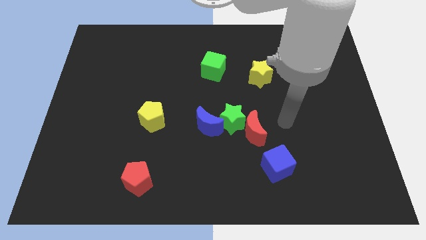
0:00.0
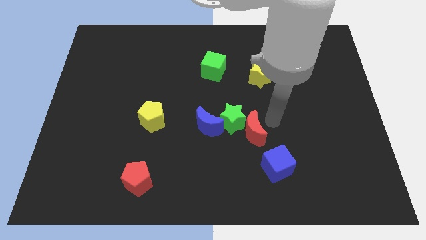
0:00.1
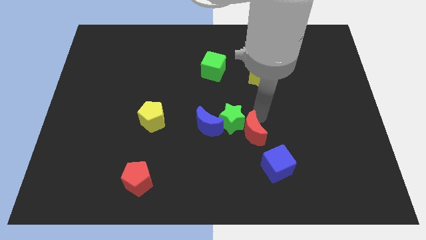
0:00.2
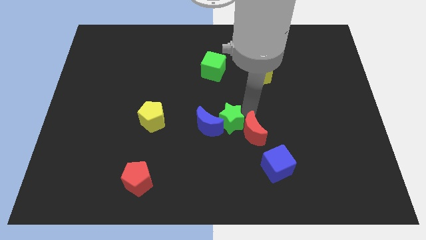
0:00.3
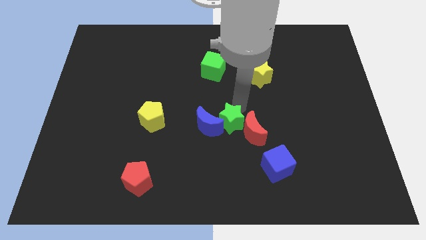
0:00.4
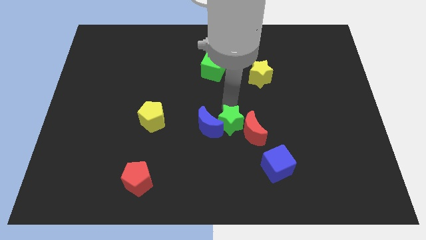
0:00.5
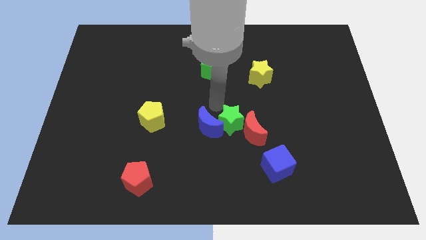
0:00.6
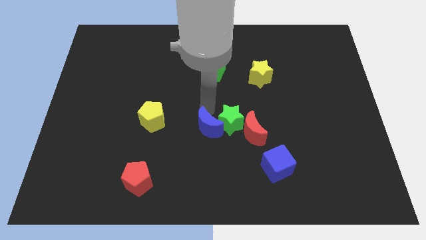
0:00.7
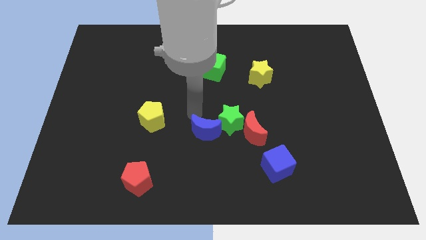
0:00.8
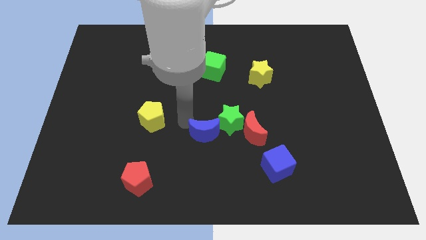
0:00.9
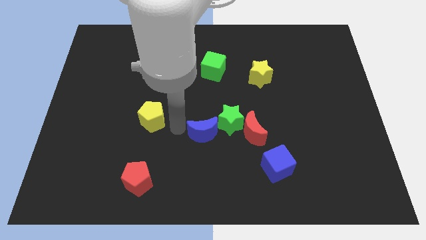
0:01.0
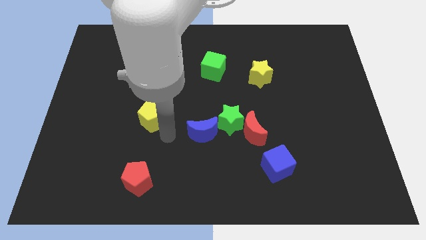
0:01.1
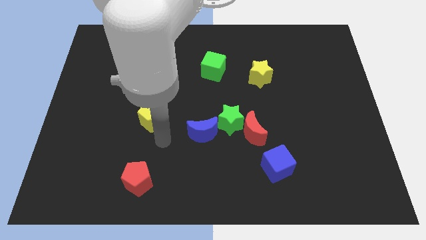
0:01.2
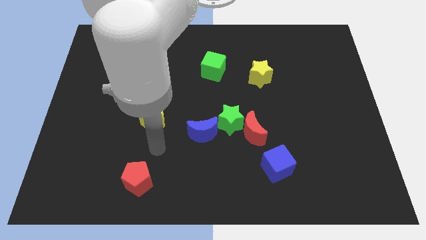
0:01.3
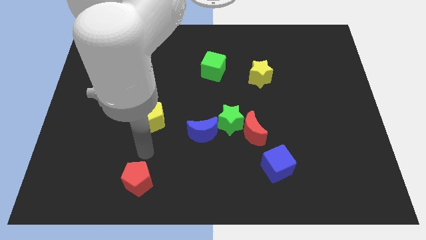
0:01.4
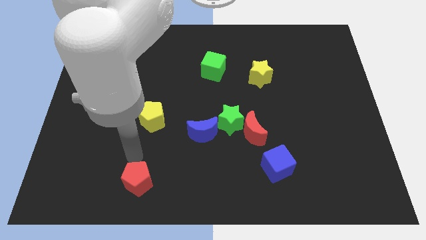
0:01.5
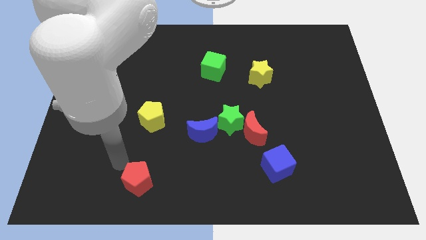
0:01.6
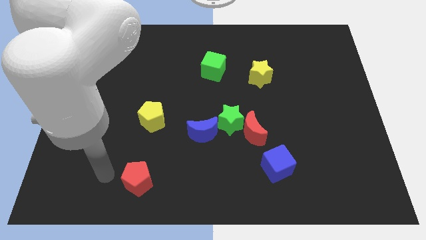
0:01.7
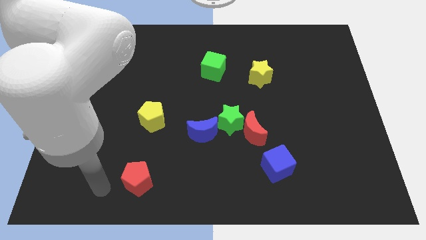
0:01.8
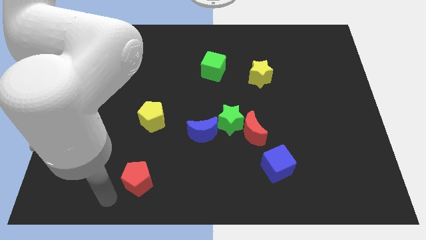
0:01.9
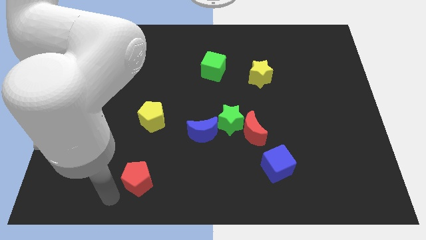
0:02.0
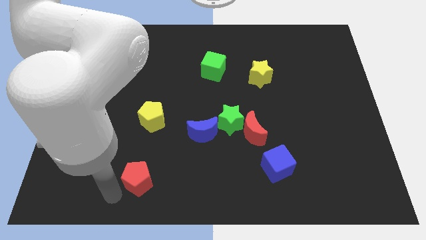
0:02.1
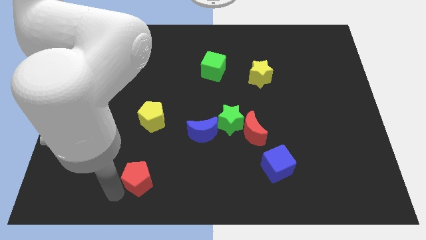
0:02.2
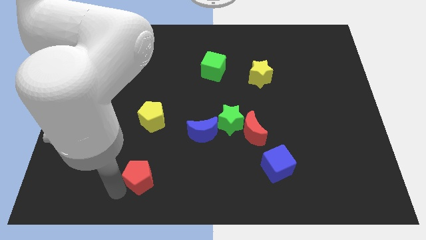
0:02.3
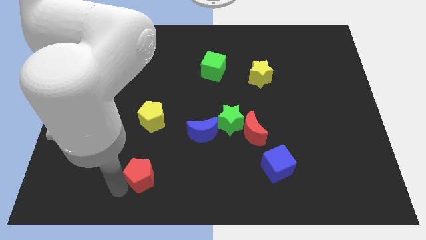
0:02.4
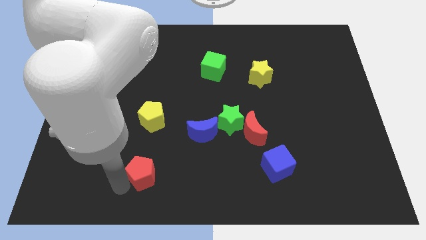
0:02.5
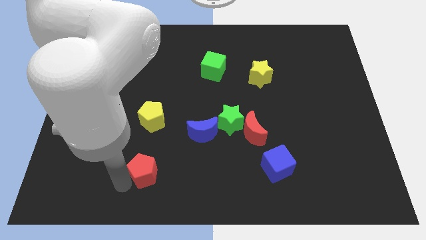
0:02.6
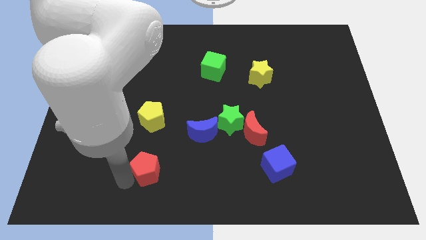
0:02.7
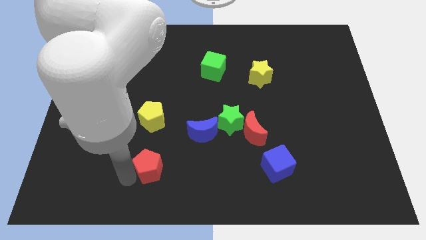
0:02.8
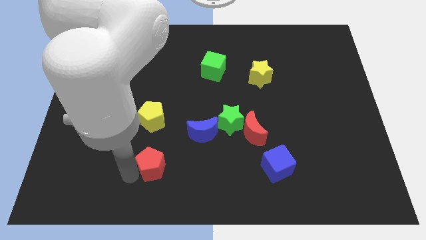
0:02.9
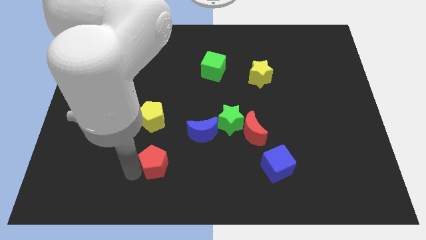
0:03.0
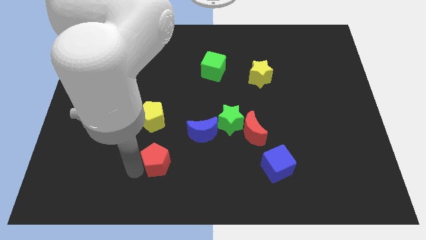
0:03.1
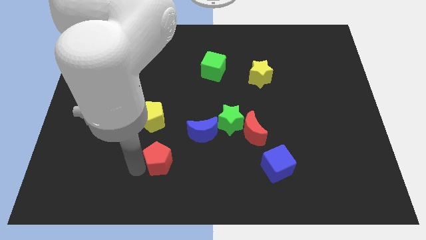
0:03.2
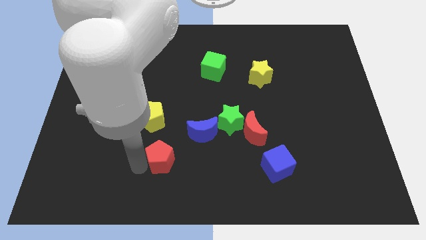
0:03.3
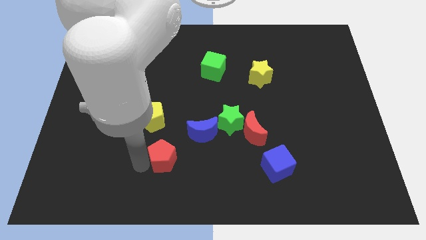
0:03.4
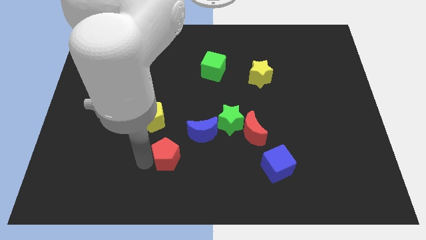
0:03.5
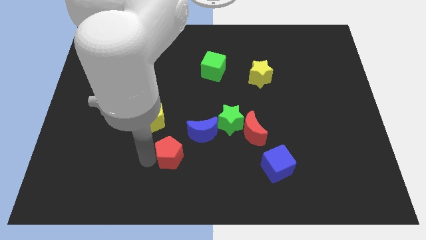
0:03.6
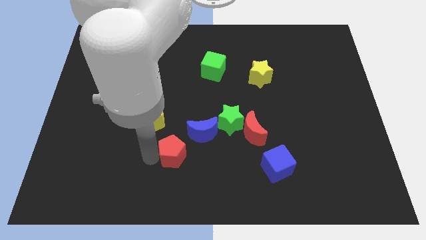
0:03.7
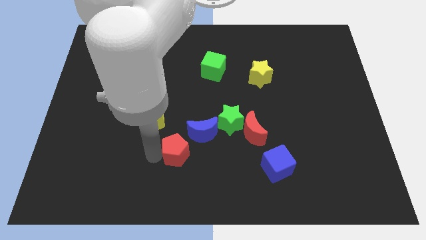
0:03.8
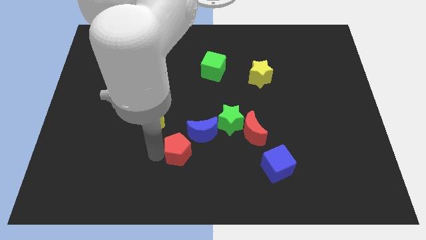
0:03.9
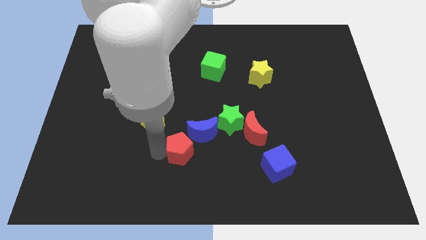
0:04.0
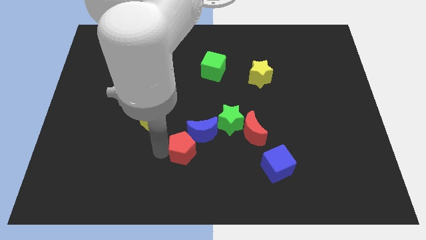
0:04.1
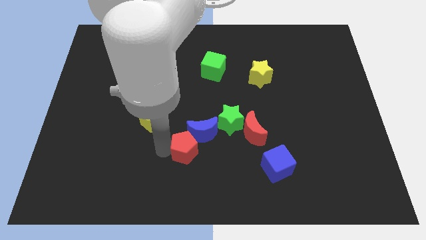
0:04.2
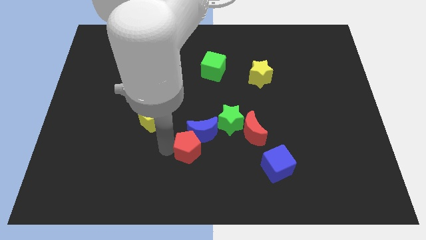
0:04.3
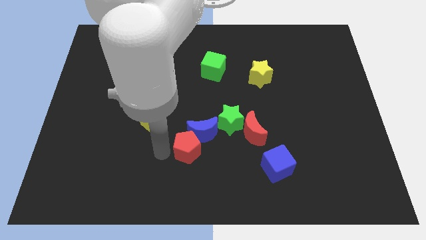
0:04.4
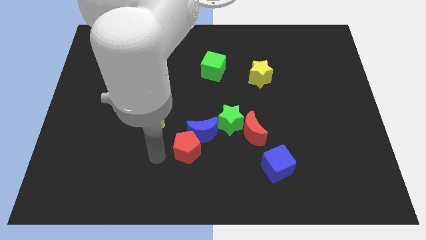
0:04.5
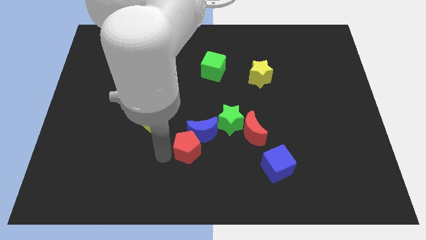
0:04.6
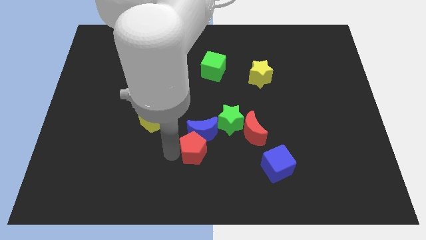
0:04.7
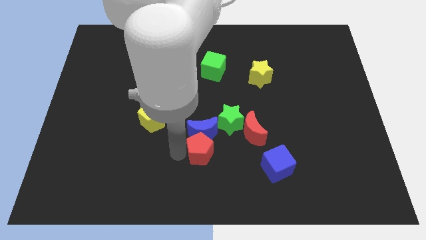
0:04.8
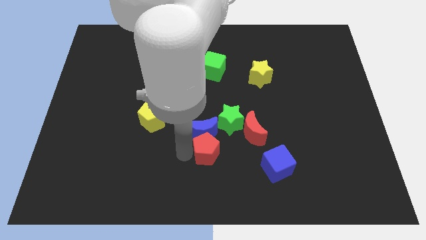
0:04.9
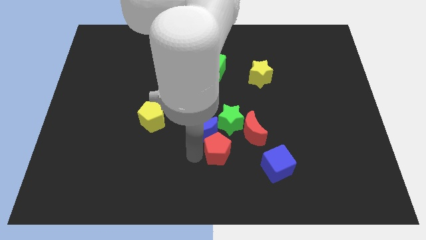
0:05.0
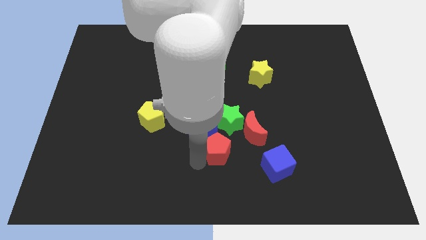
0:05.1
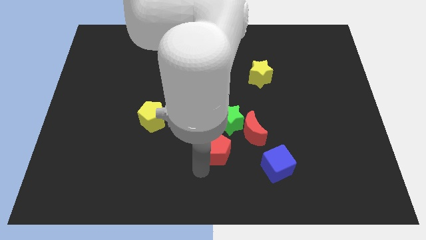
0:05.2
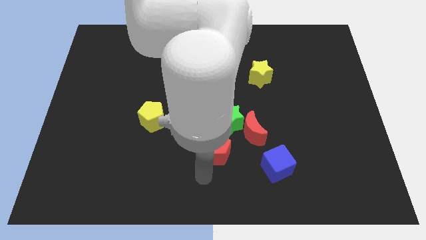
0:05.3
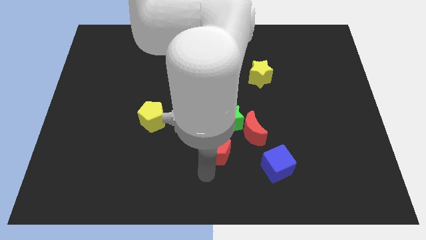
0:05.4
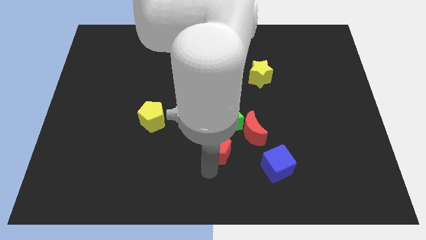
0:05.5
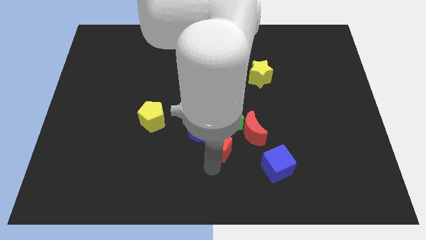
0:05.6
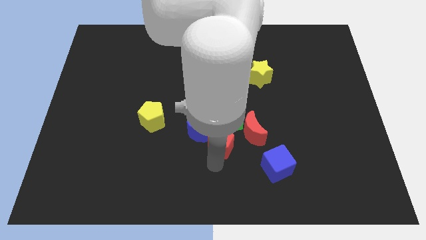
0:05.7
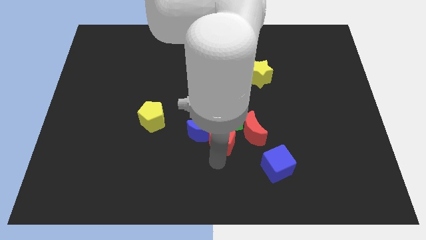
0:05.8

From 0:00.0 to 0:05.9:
slide the red pentagon towards the green star

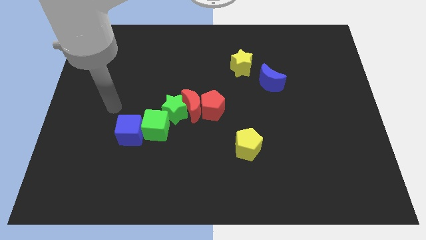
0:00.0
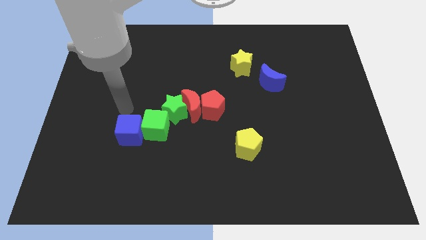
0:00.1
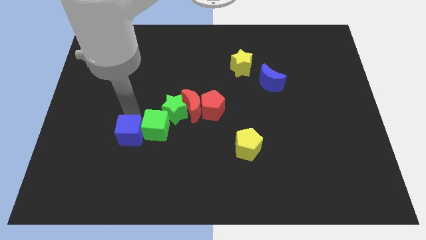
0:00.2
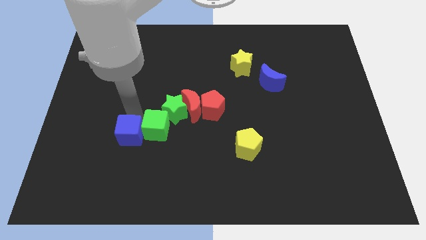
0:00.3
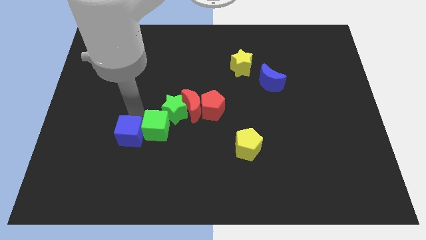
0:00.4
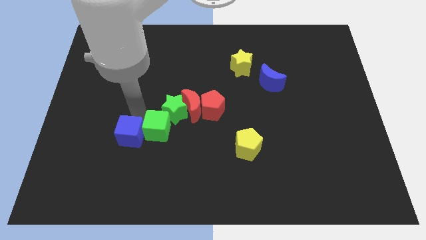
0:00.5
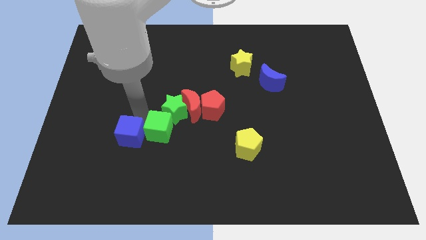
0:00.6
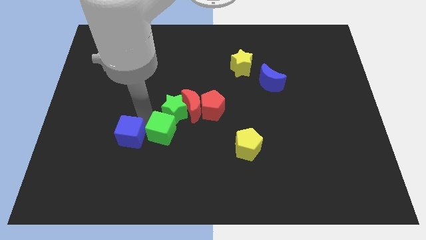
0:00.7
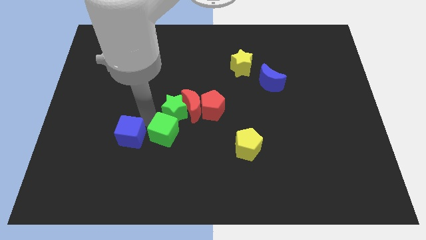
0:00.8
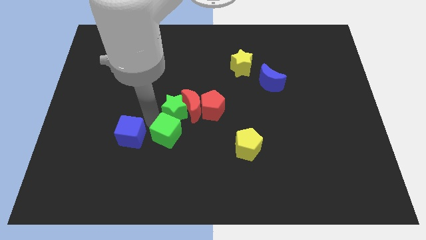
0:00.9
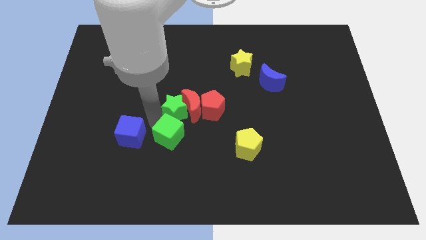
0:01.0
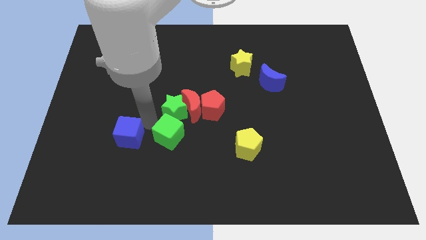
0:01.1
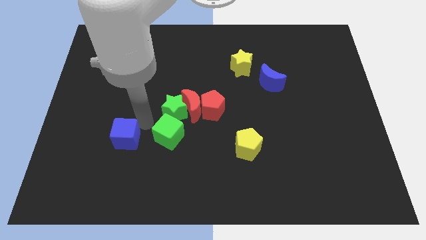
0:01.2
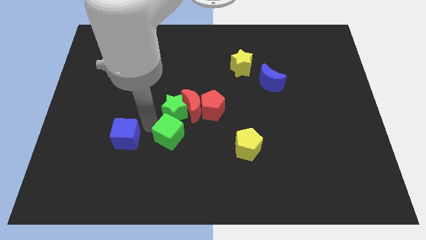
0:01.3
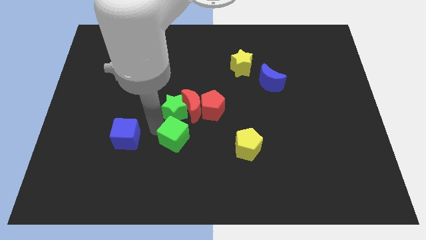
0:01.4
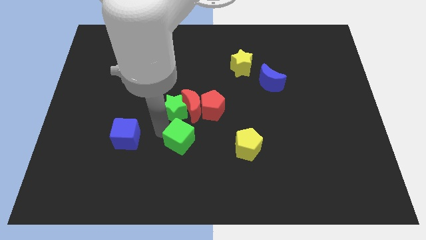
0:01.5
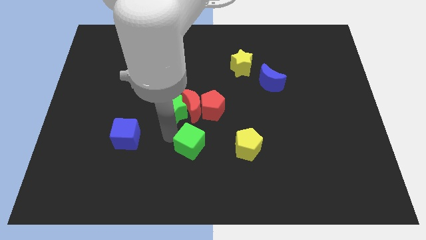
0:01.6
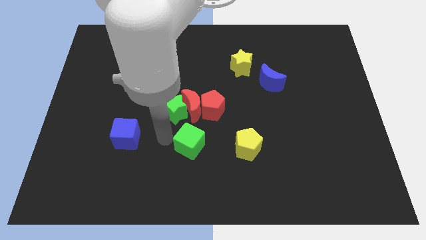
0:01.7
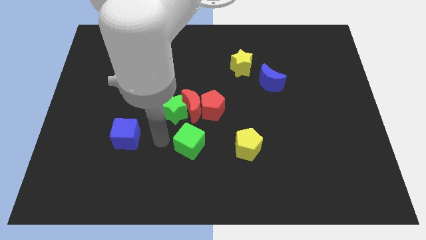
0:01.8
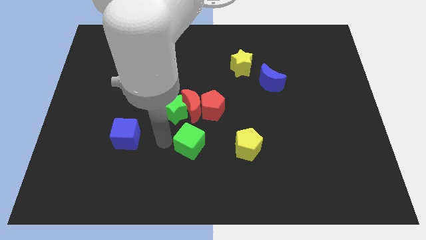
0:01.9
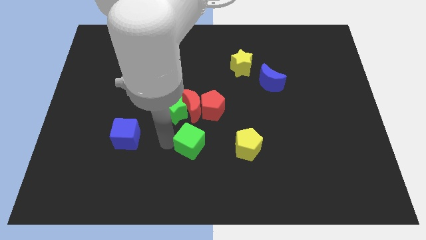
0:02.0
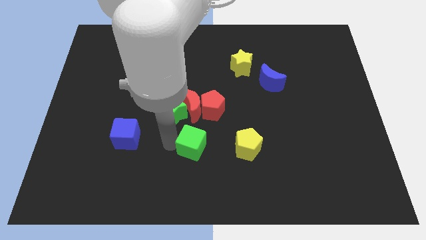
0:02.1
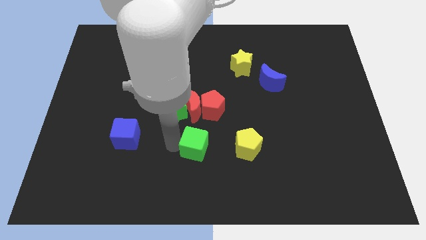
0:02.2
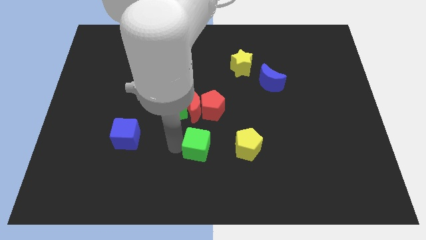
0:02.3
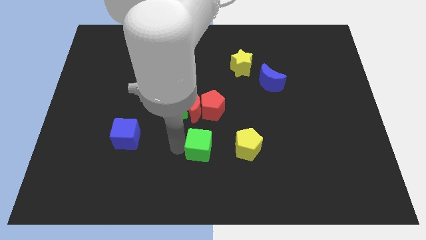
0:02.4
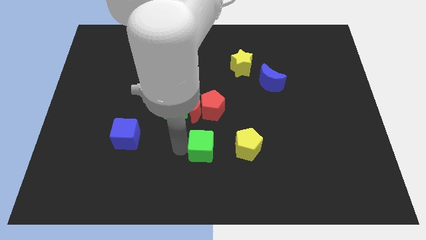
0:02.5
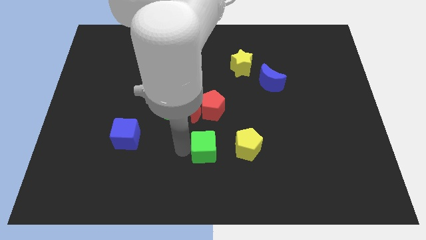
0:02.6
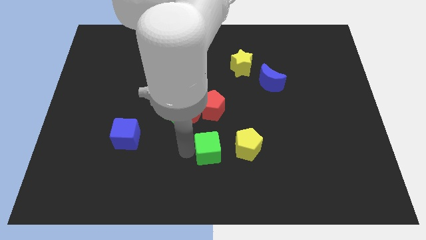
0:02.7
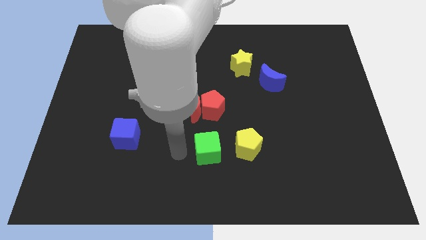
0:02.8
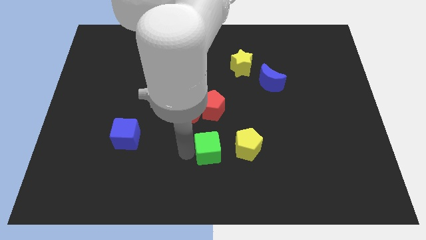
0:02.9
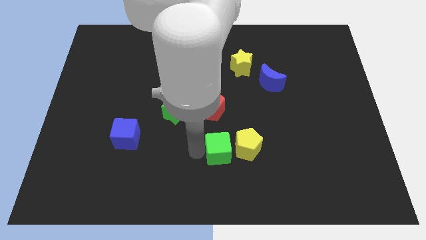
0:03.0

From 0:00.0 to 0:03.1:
slide the green cube towards the yellow pentagon
